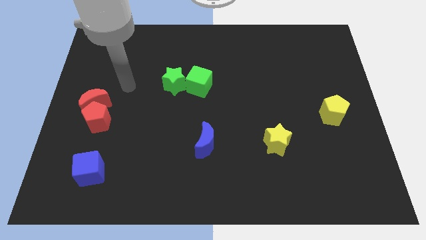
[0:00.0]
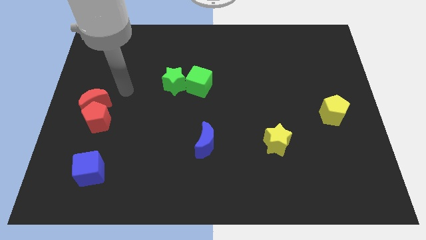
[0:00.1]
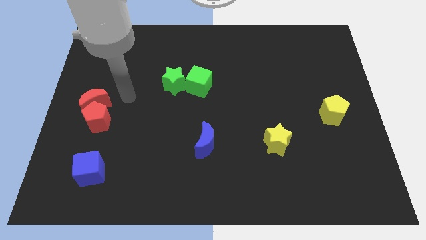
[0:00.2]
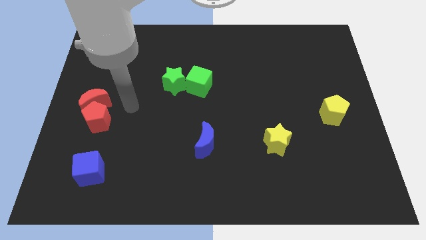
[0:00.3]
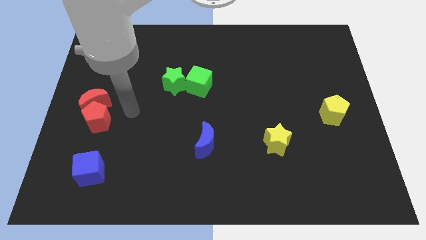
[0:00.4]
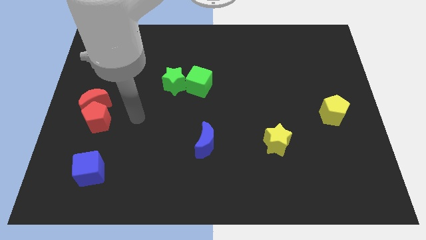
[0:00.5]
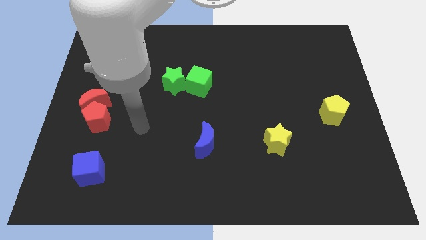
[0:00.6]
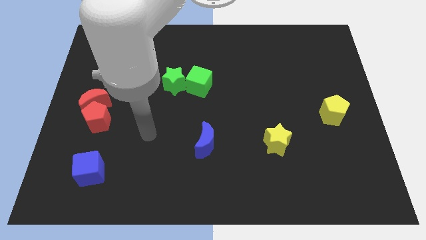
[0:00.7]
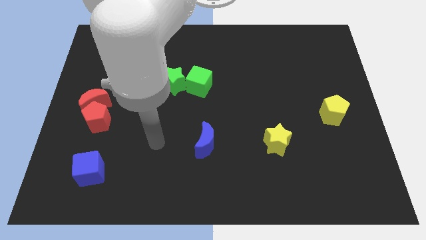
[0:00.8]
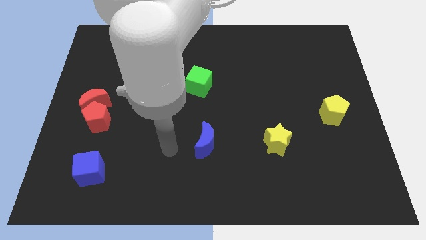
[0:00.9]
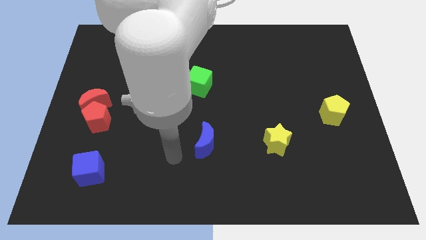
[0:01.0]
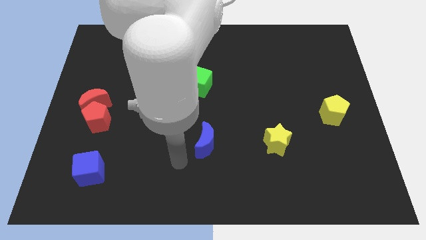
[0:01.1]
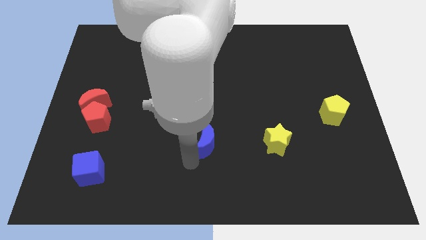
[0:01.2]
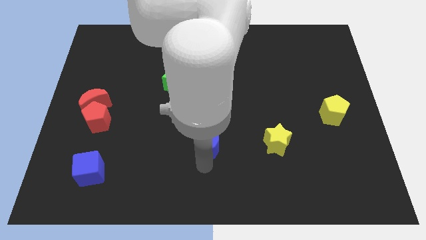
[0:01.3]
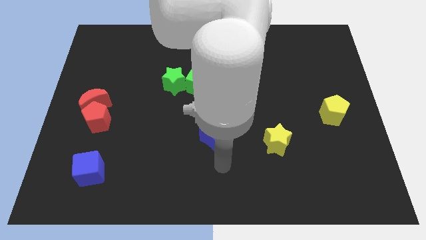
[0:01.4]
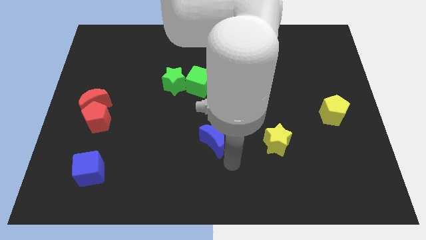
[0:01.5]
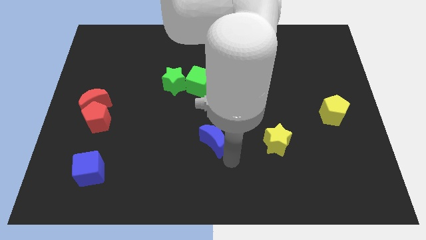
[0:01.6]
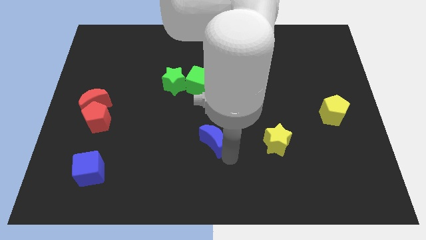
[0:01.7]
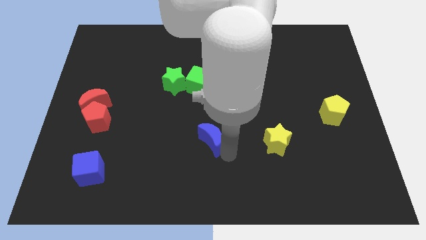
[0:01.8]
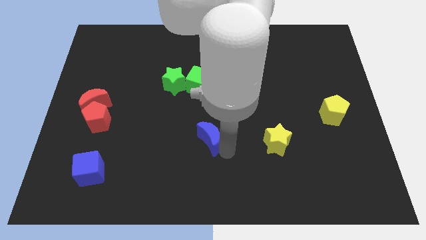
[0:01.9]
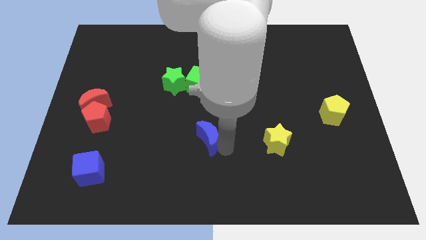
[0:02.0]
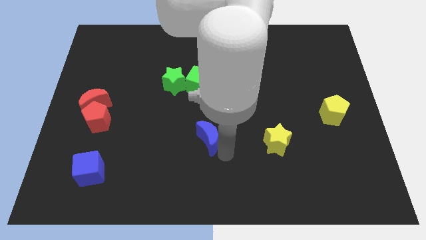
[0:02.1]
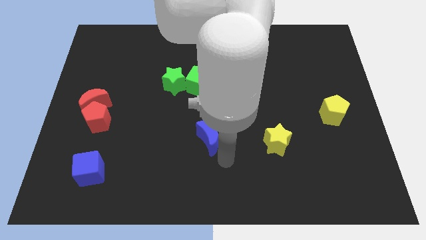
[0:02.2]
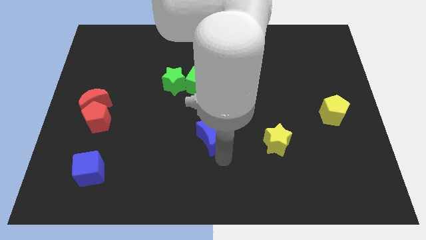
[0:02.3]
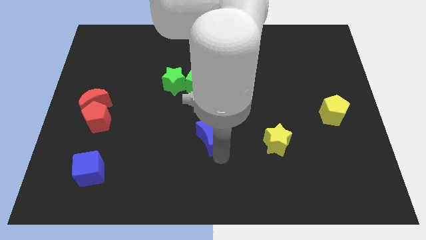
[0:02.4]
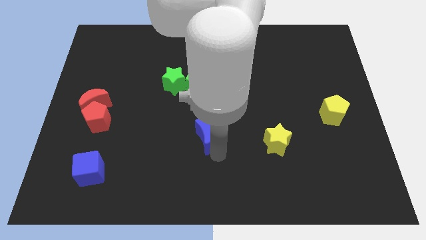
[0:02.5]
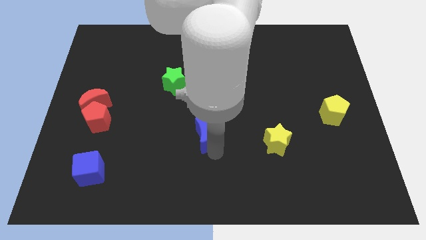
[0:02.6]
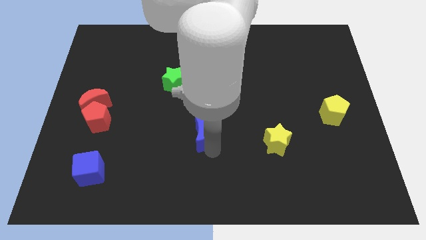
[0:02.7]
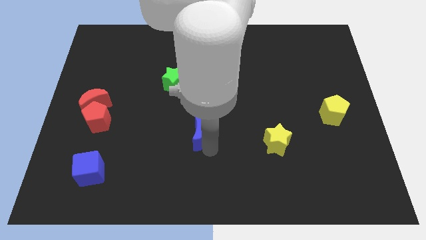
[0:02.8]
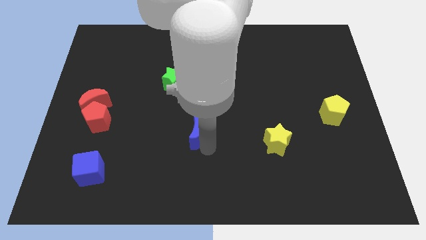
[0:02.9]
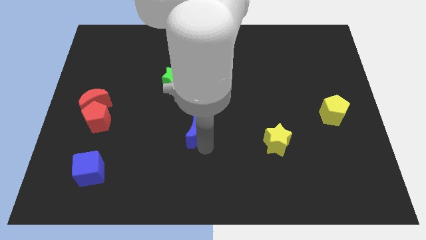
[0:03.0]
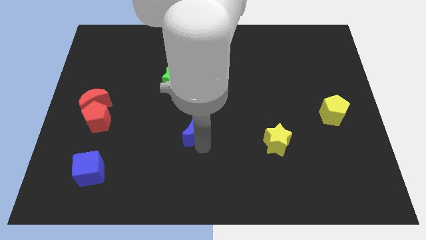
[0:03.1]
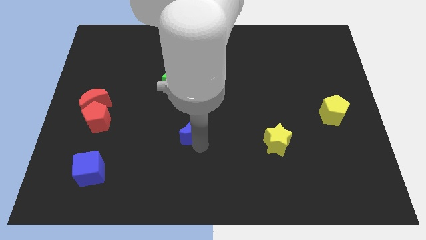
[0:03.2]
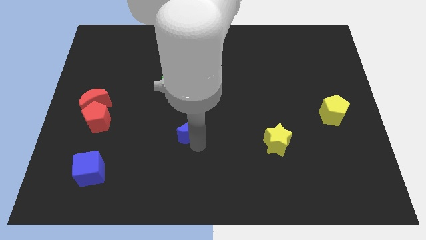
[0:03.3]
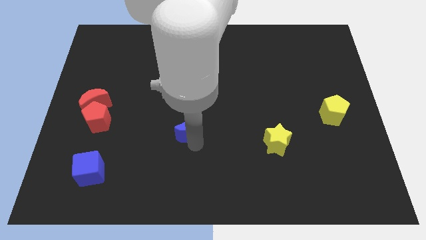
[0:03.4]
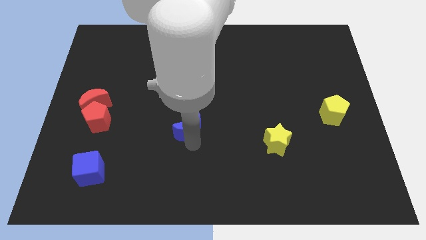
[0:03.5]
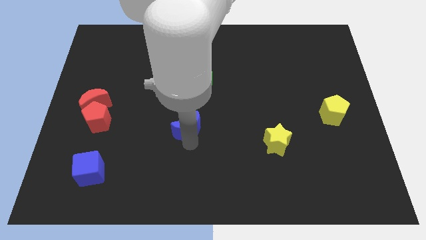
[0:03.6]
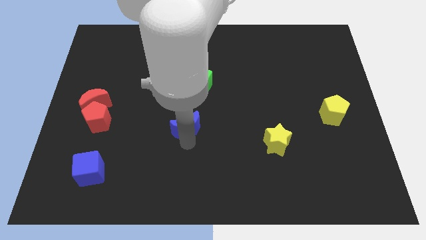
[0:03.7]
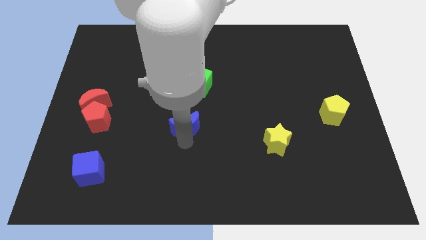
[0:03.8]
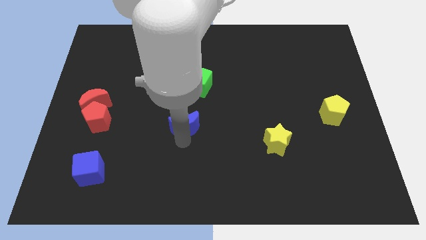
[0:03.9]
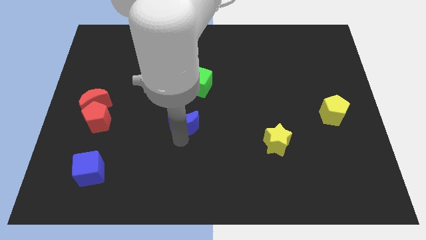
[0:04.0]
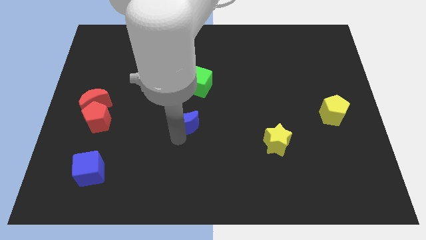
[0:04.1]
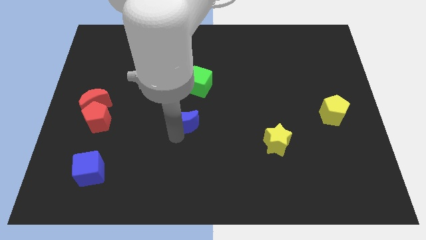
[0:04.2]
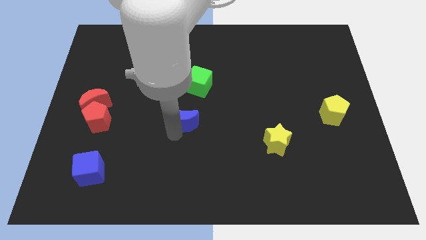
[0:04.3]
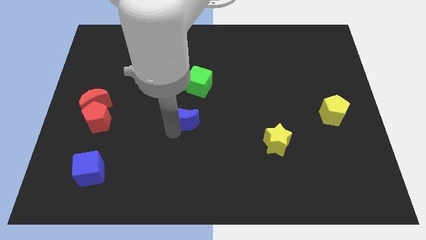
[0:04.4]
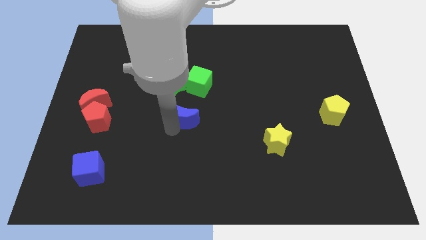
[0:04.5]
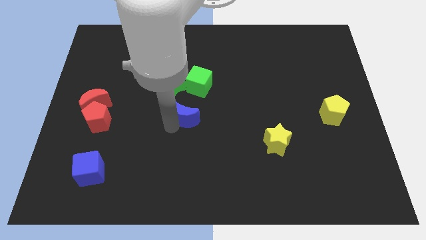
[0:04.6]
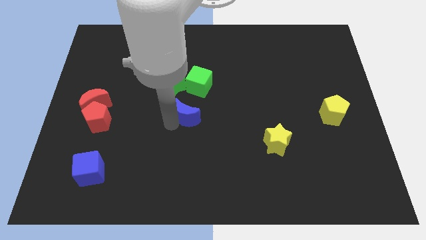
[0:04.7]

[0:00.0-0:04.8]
push the blue moon diagonally down and to the right of the green star

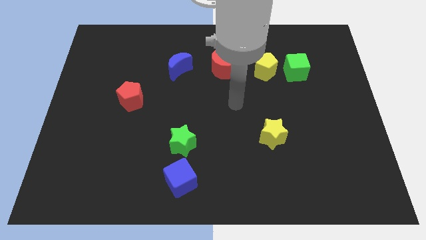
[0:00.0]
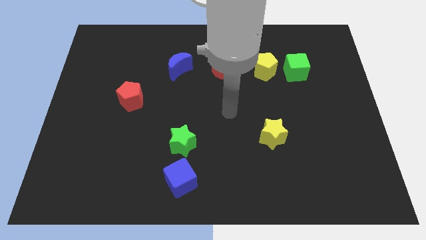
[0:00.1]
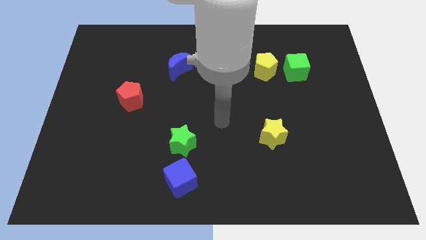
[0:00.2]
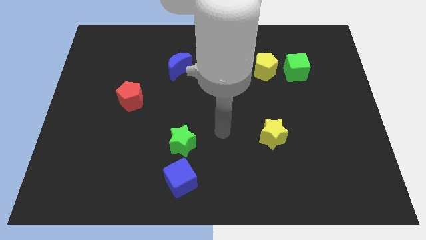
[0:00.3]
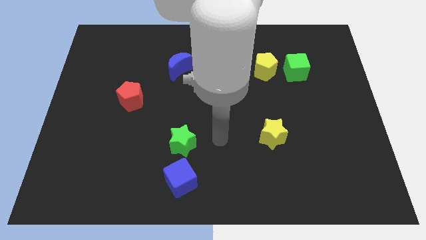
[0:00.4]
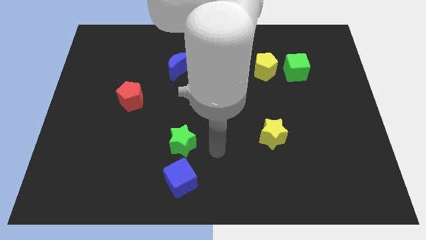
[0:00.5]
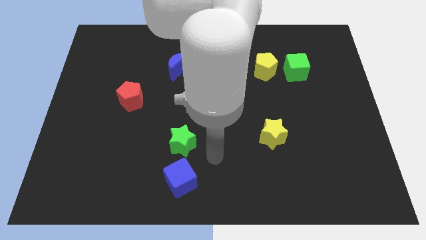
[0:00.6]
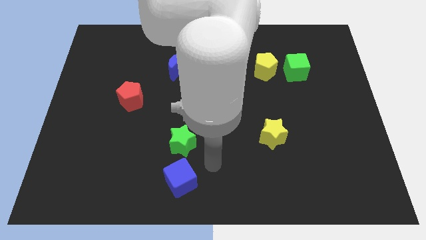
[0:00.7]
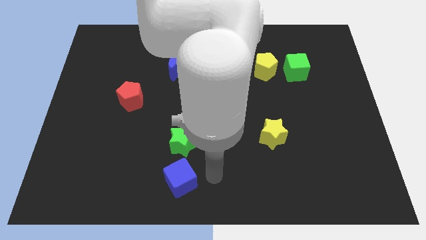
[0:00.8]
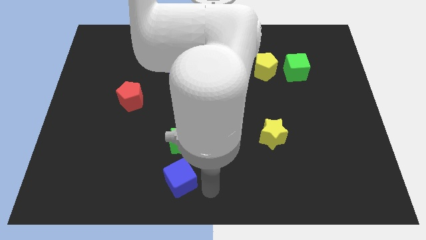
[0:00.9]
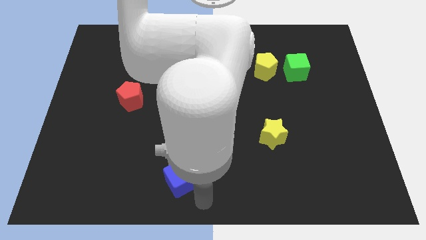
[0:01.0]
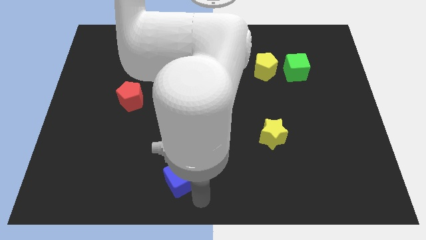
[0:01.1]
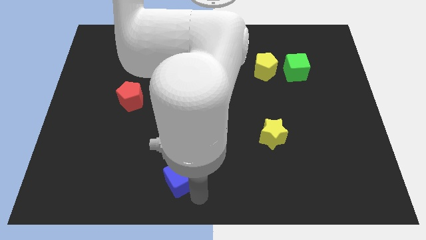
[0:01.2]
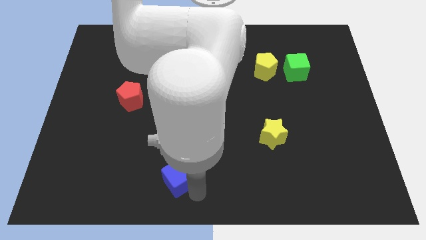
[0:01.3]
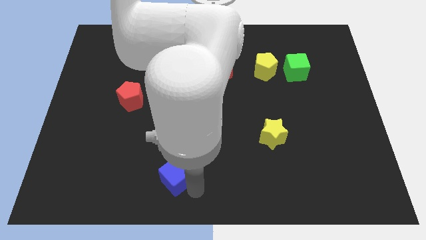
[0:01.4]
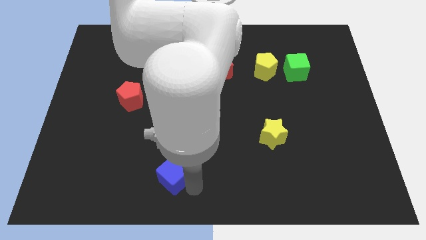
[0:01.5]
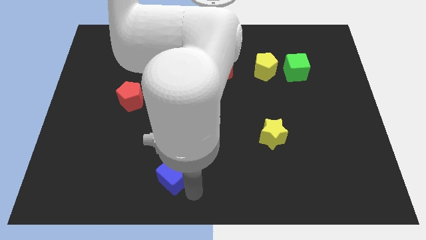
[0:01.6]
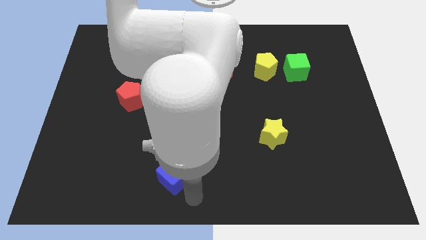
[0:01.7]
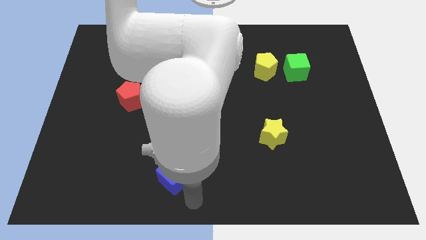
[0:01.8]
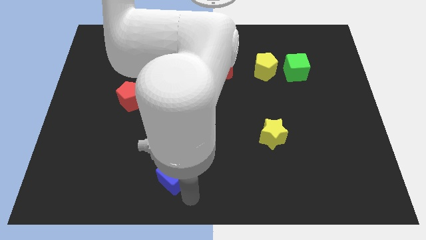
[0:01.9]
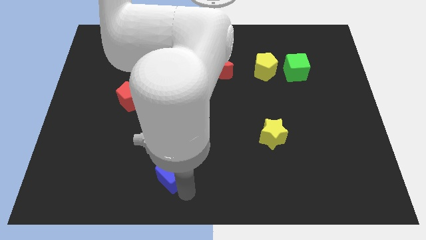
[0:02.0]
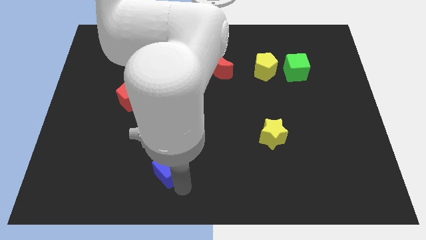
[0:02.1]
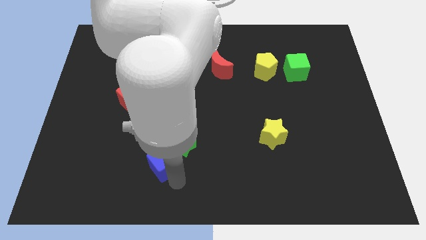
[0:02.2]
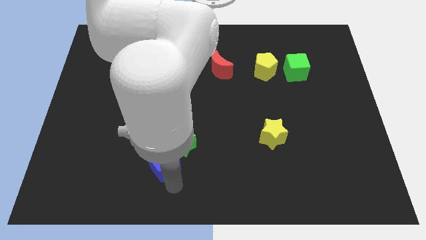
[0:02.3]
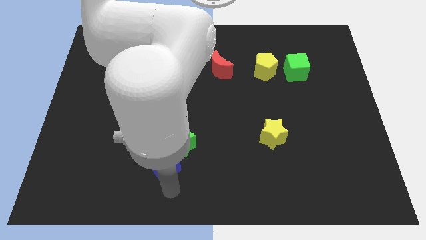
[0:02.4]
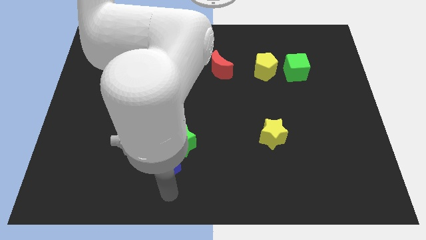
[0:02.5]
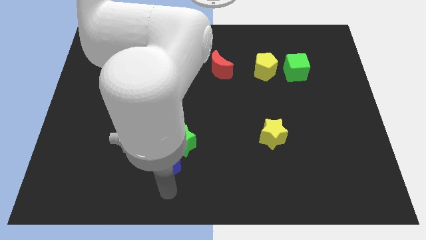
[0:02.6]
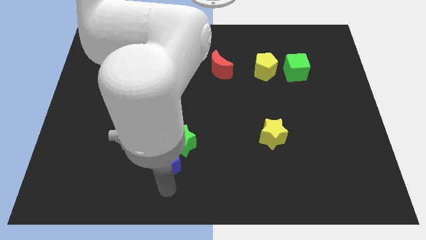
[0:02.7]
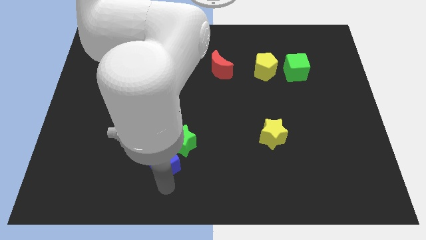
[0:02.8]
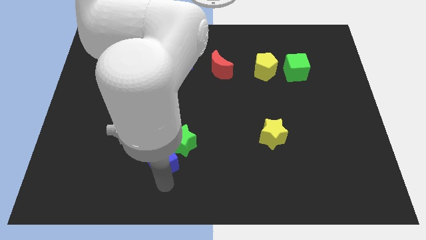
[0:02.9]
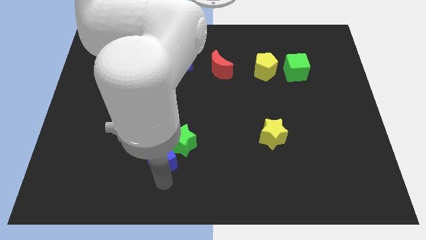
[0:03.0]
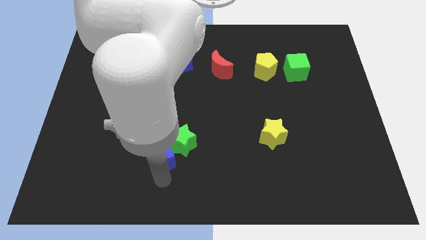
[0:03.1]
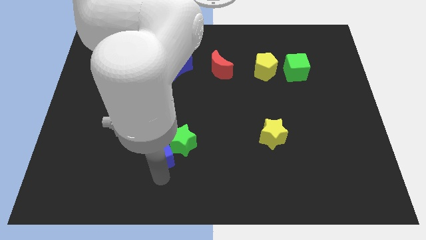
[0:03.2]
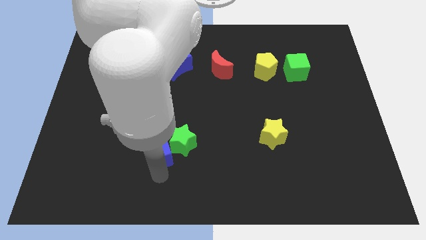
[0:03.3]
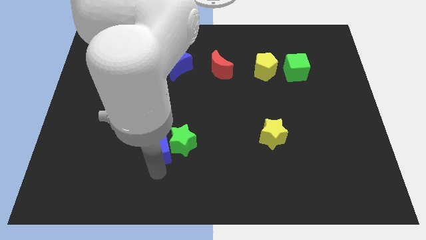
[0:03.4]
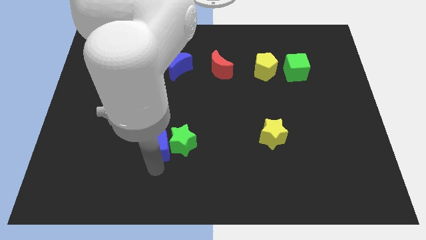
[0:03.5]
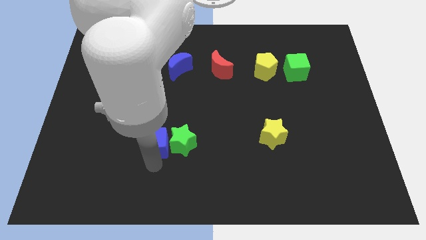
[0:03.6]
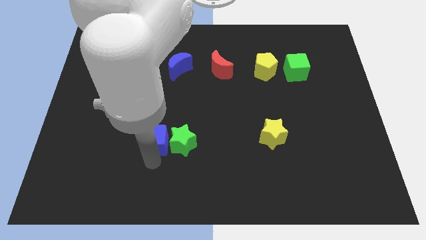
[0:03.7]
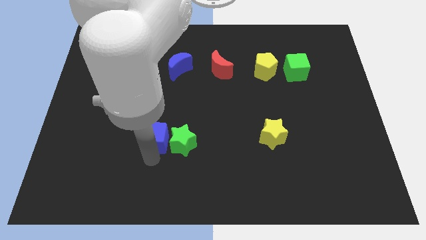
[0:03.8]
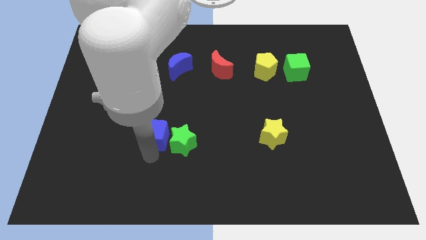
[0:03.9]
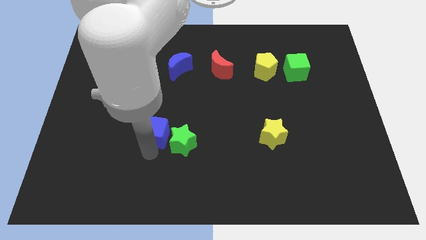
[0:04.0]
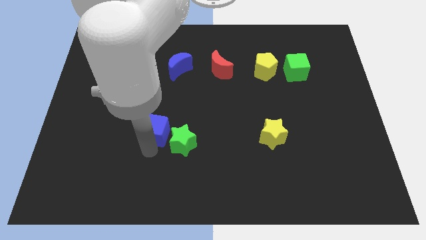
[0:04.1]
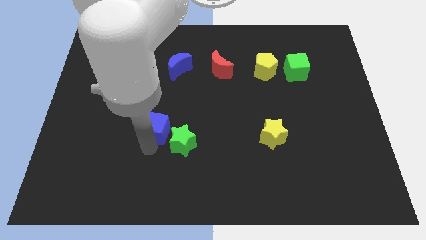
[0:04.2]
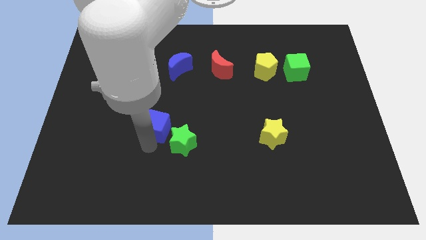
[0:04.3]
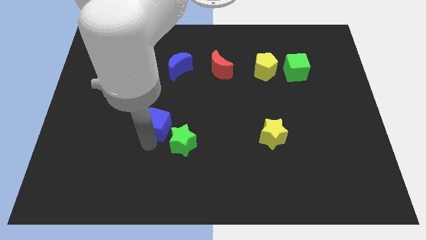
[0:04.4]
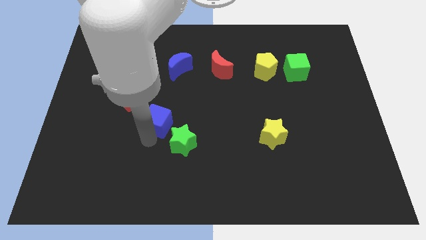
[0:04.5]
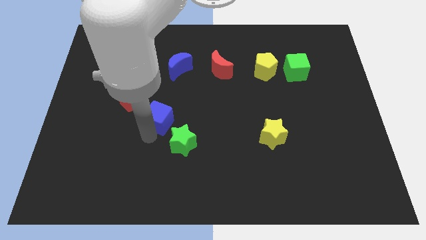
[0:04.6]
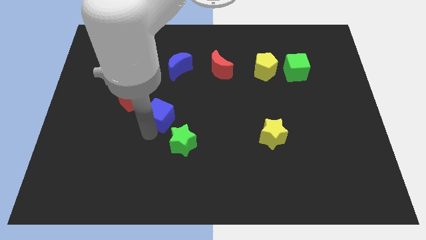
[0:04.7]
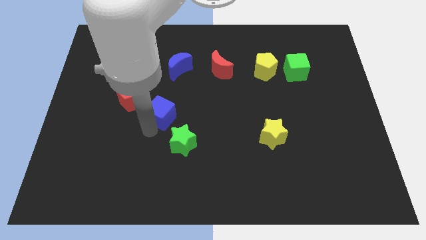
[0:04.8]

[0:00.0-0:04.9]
push the blue cube to the bottom of the blue moon
